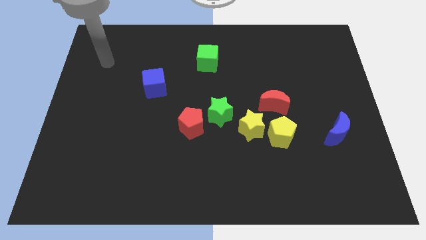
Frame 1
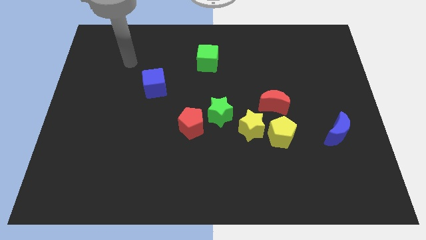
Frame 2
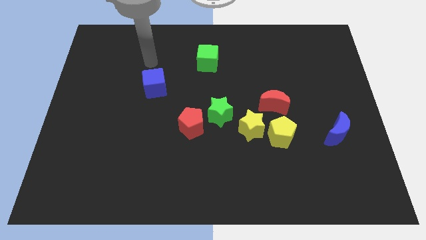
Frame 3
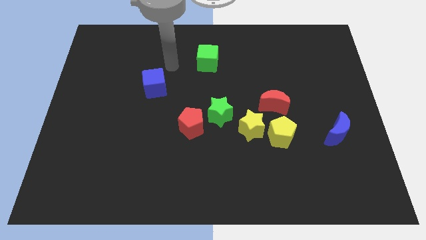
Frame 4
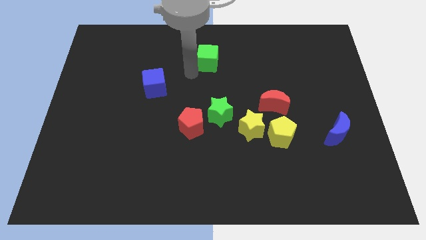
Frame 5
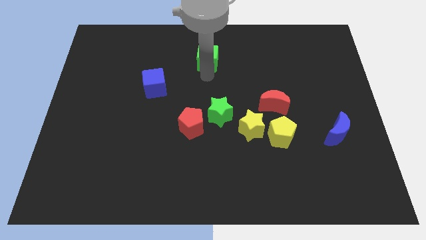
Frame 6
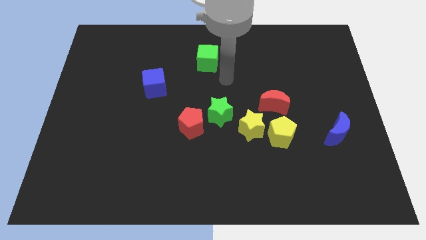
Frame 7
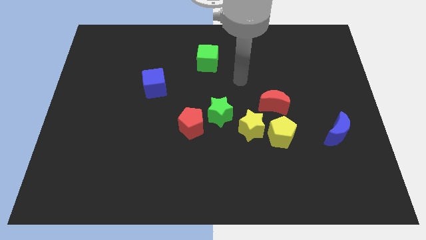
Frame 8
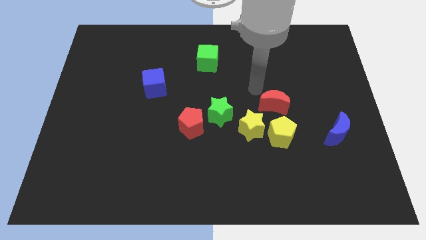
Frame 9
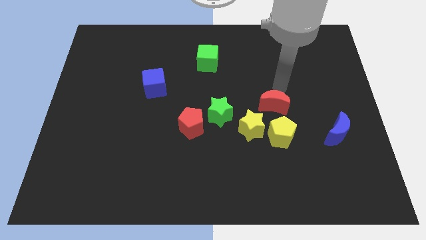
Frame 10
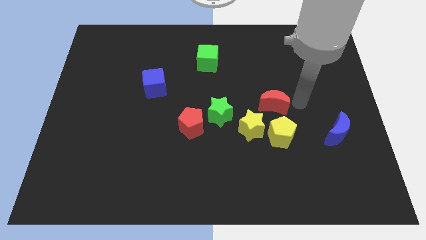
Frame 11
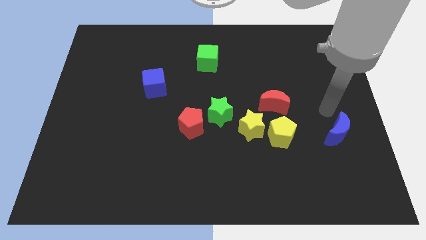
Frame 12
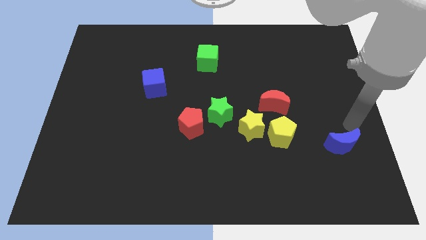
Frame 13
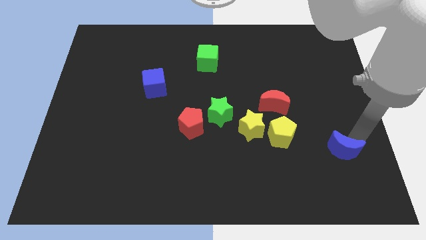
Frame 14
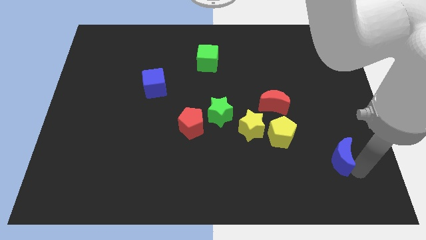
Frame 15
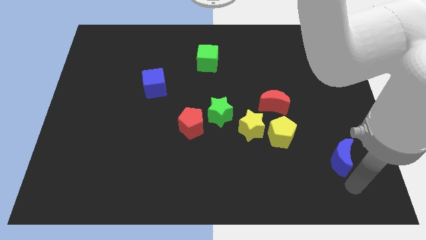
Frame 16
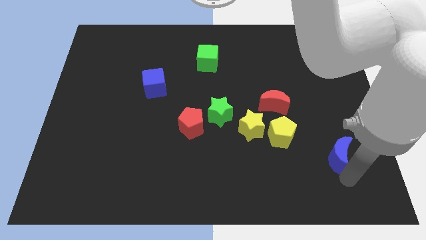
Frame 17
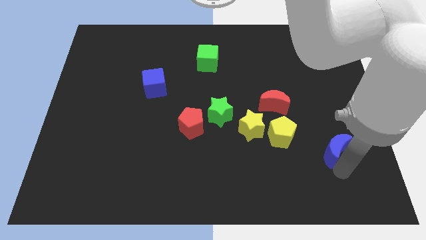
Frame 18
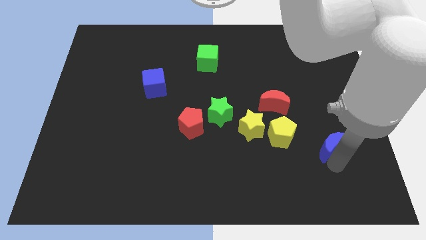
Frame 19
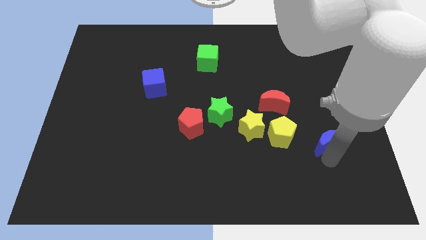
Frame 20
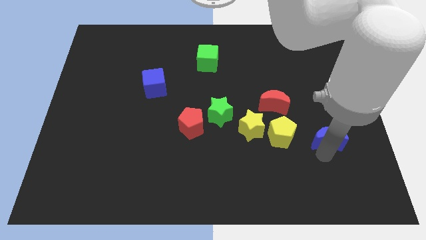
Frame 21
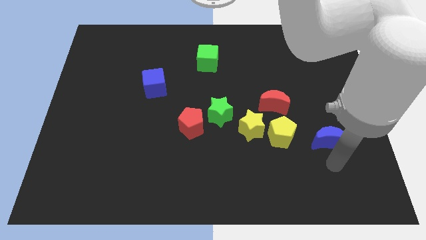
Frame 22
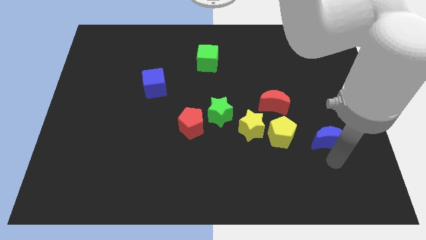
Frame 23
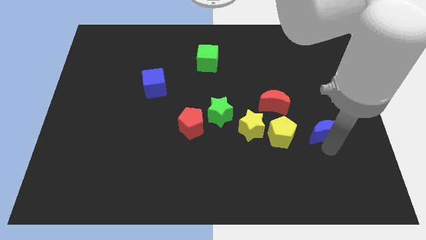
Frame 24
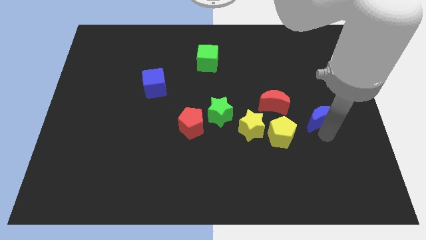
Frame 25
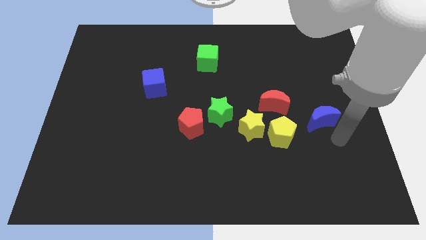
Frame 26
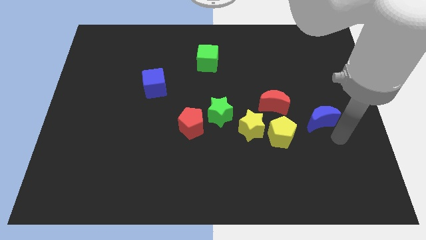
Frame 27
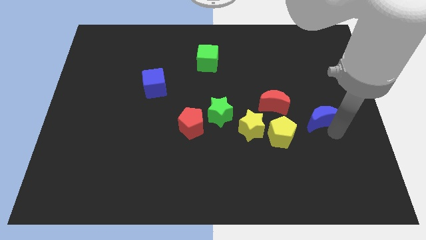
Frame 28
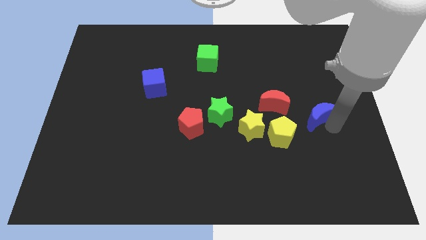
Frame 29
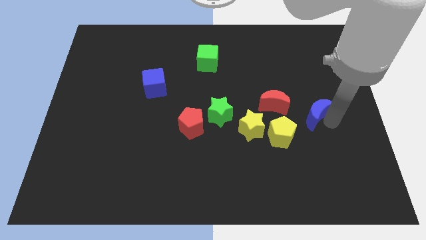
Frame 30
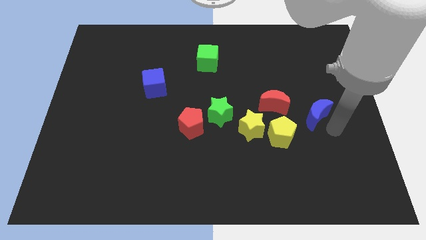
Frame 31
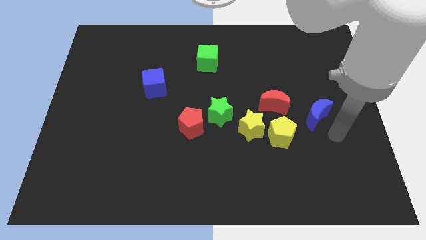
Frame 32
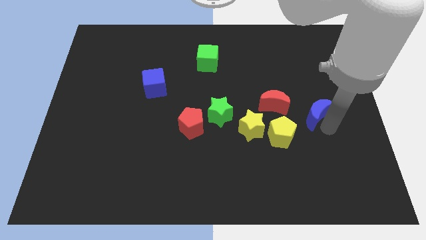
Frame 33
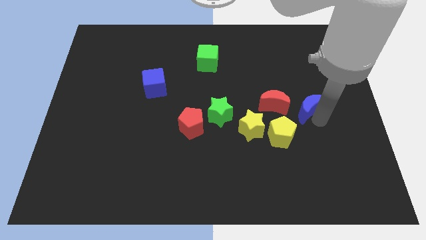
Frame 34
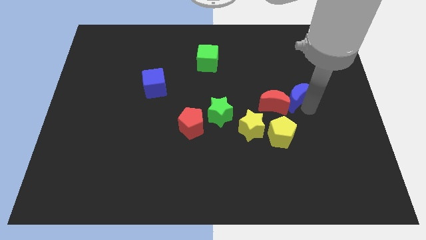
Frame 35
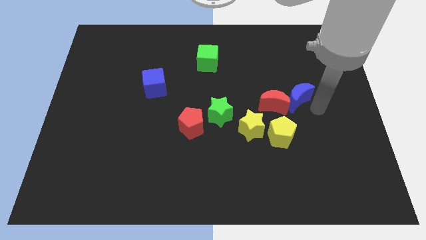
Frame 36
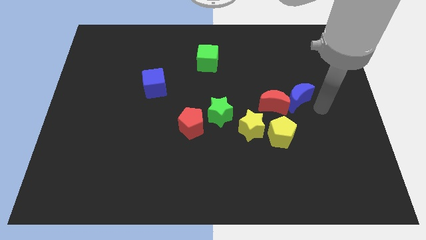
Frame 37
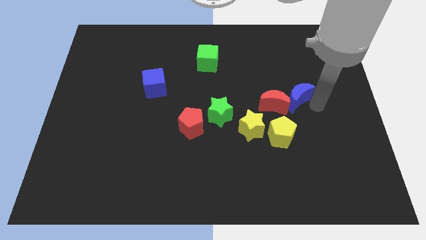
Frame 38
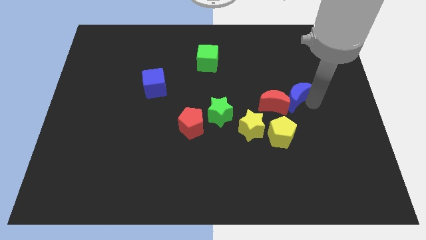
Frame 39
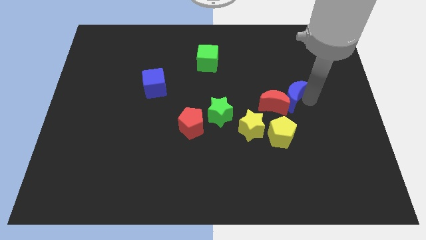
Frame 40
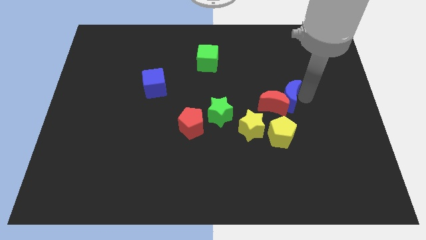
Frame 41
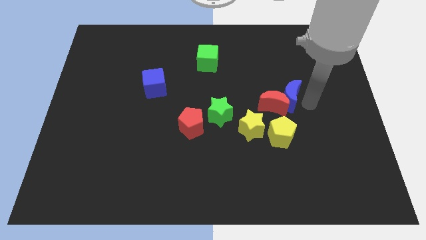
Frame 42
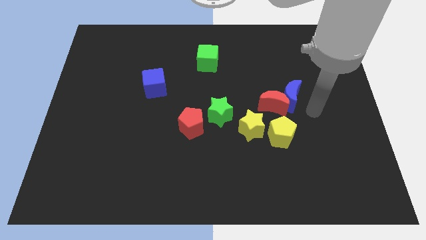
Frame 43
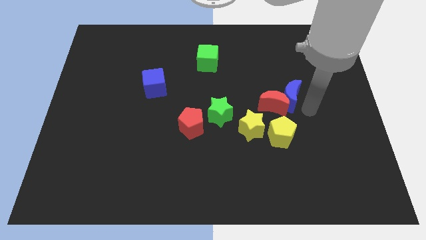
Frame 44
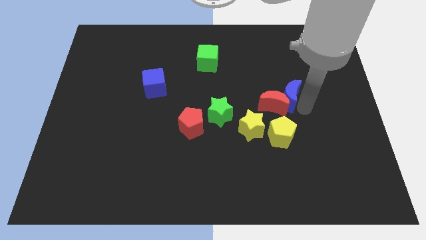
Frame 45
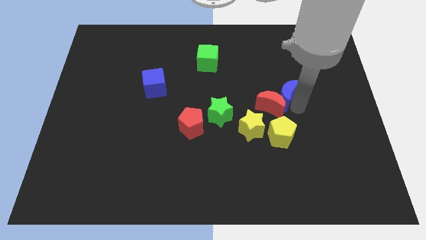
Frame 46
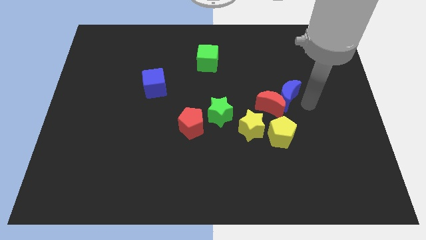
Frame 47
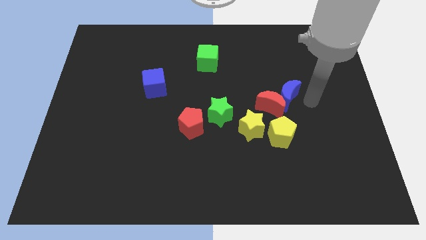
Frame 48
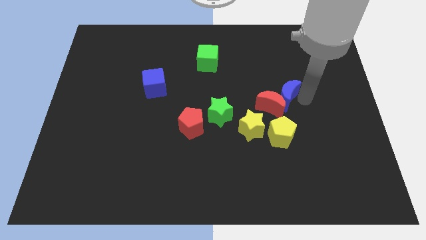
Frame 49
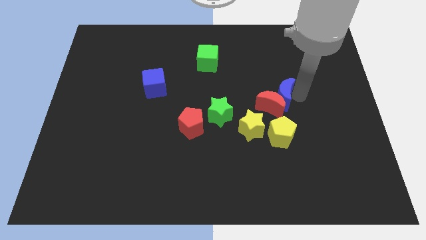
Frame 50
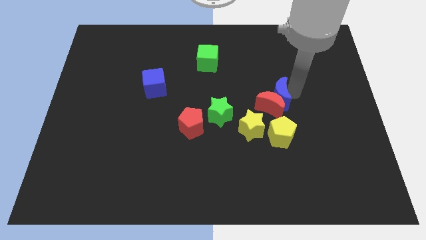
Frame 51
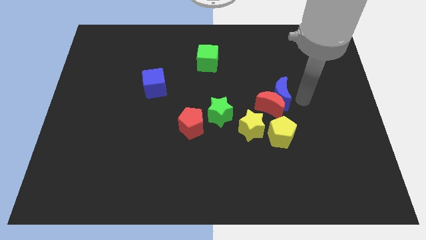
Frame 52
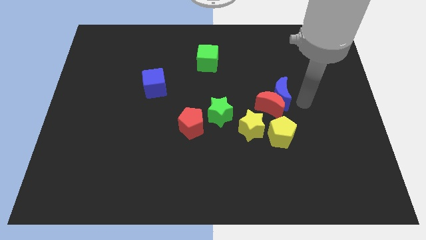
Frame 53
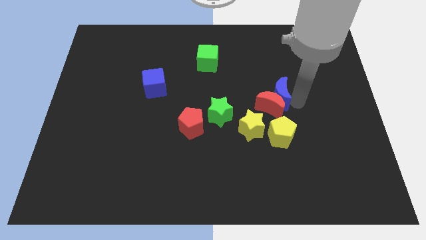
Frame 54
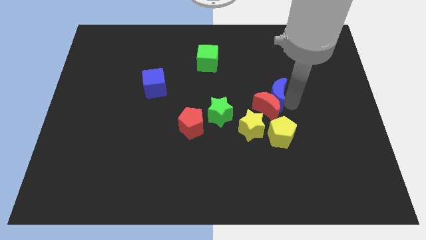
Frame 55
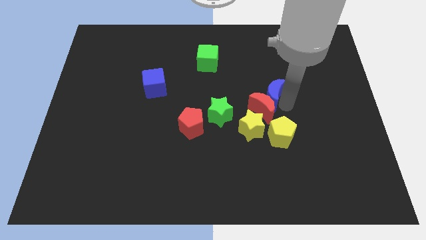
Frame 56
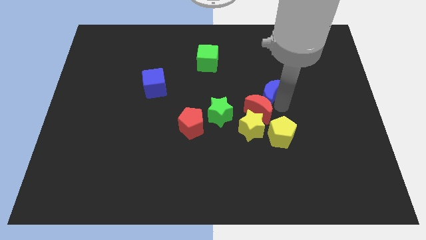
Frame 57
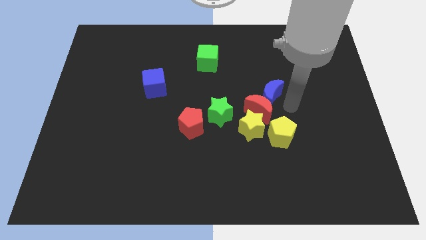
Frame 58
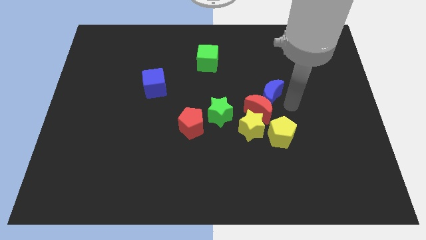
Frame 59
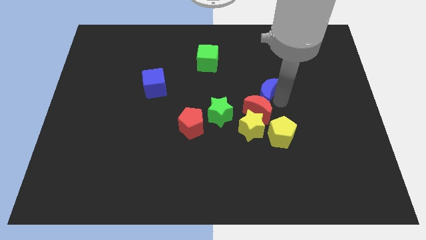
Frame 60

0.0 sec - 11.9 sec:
move the blue moon to the center

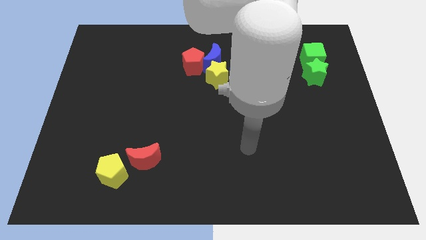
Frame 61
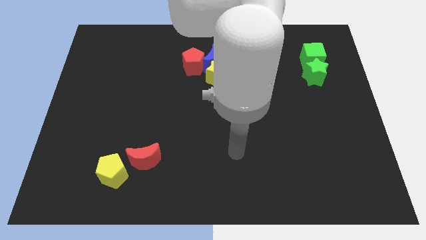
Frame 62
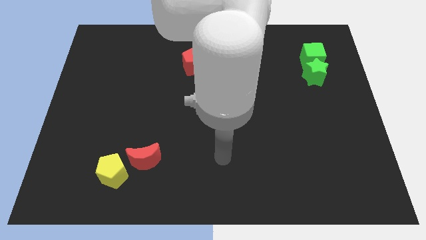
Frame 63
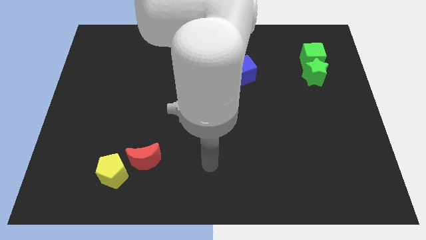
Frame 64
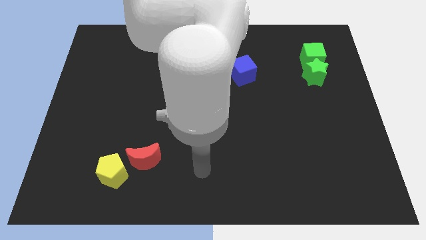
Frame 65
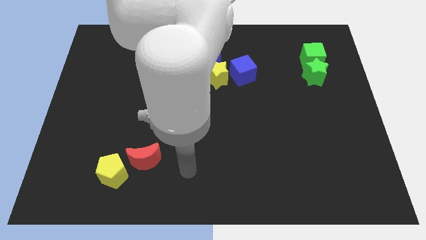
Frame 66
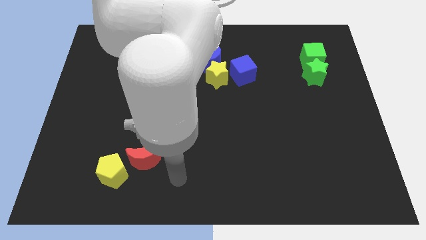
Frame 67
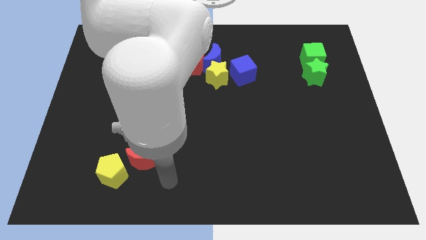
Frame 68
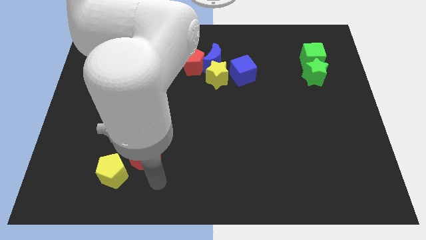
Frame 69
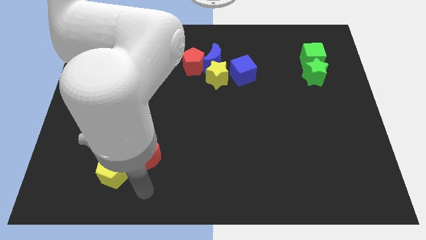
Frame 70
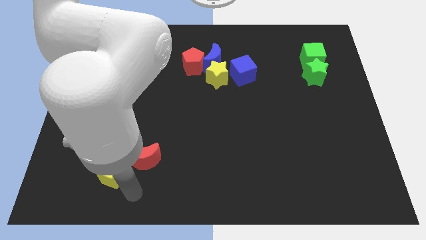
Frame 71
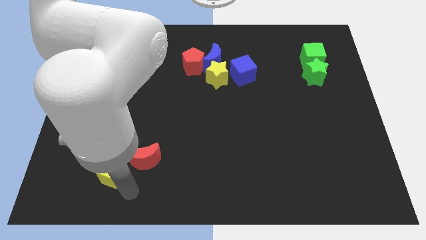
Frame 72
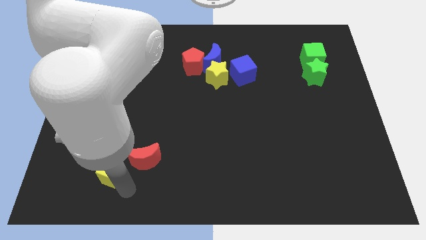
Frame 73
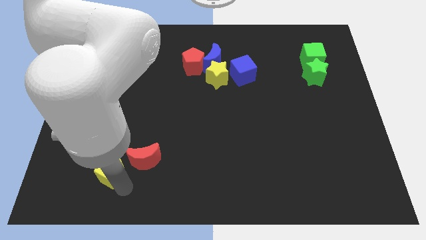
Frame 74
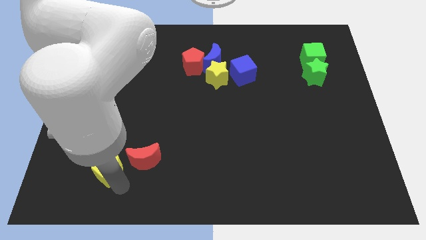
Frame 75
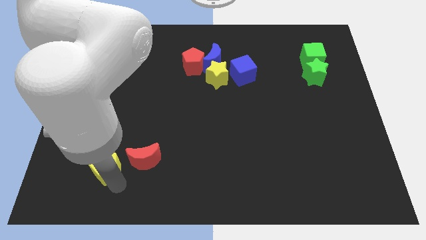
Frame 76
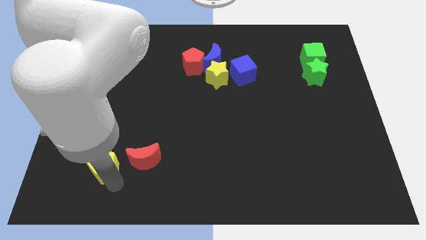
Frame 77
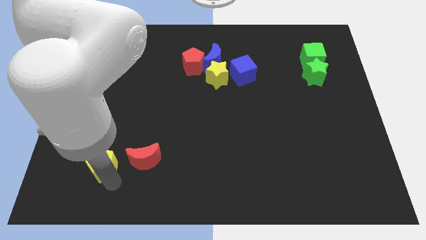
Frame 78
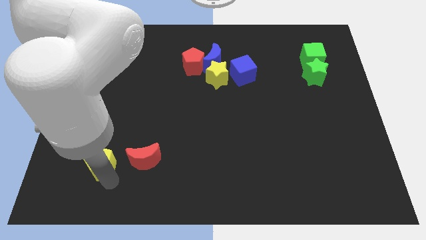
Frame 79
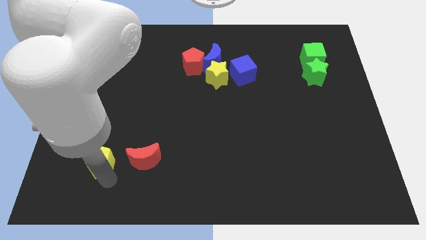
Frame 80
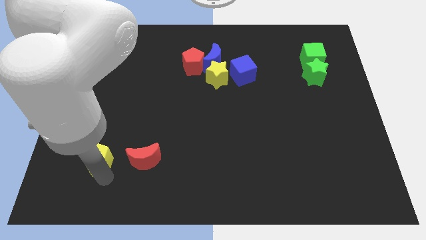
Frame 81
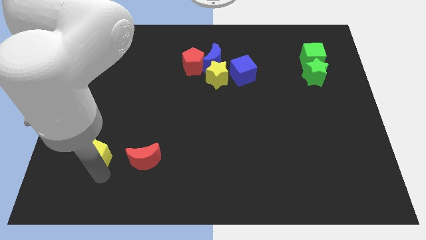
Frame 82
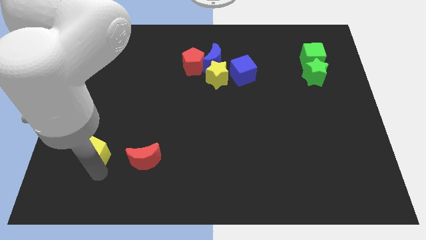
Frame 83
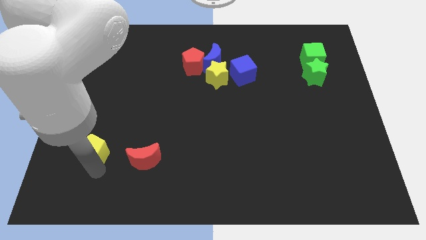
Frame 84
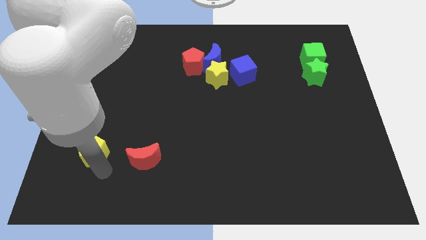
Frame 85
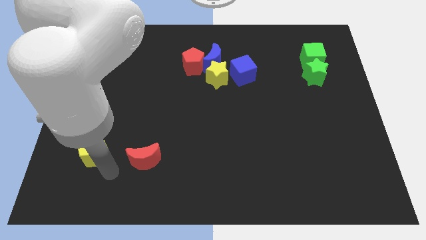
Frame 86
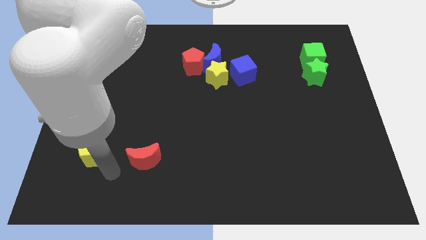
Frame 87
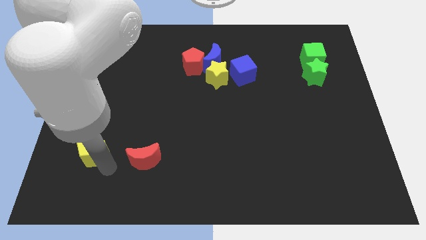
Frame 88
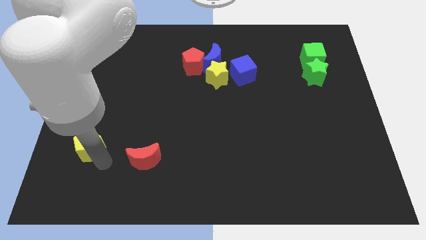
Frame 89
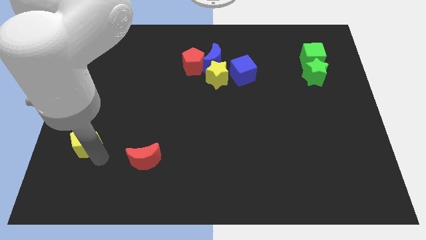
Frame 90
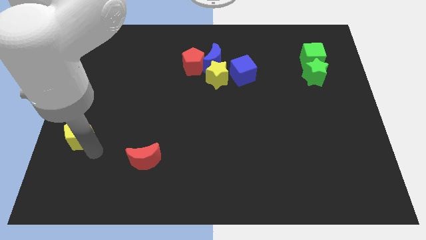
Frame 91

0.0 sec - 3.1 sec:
slide the yellow pentagon to the left side of the board
